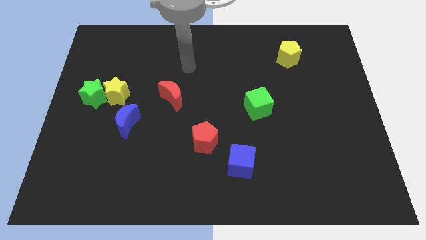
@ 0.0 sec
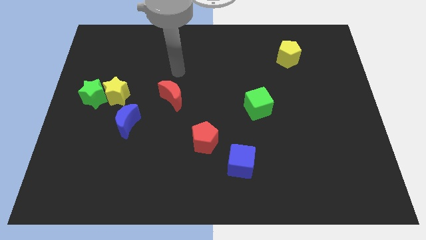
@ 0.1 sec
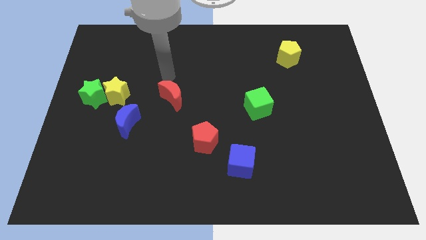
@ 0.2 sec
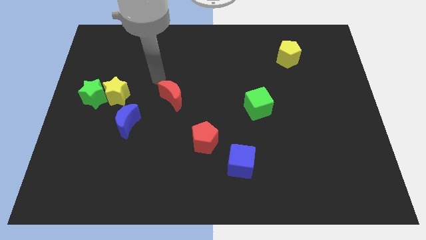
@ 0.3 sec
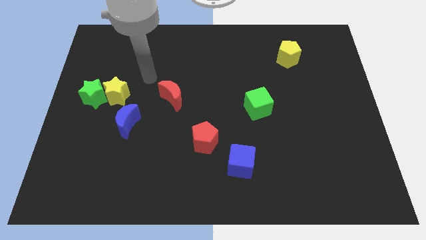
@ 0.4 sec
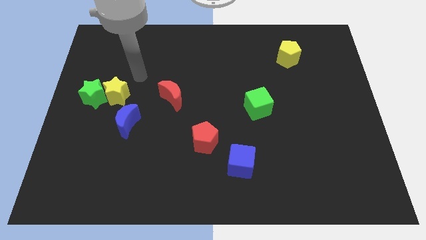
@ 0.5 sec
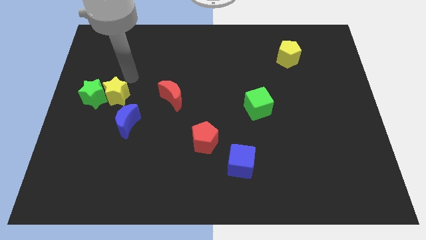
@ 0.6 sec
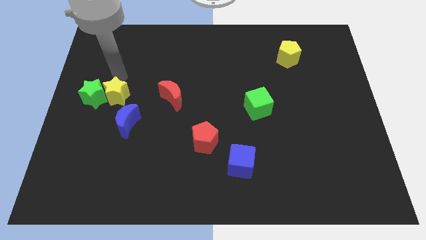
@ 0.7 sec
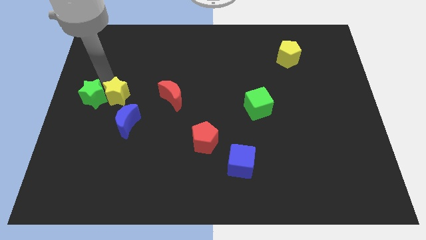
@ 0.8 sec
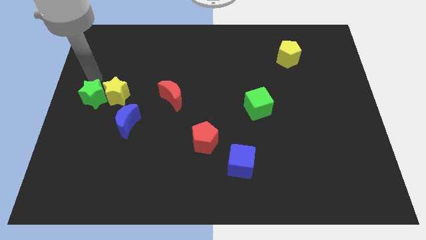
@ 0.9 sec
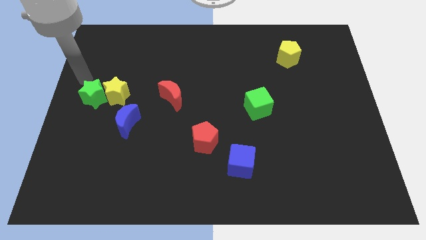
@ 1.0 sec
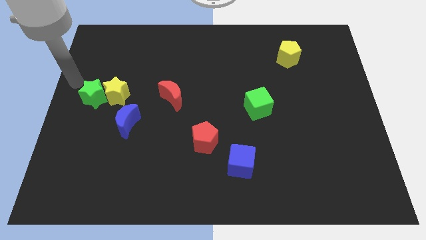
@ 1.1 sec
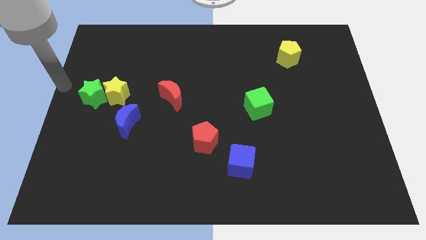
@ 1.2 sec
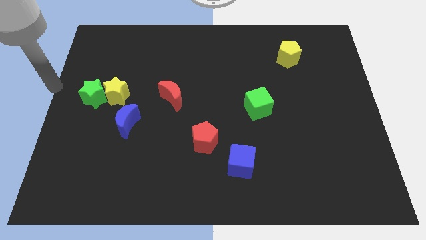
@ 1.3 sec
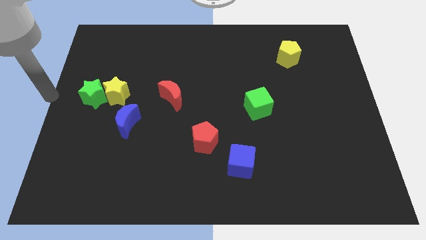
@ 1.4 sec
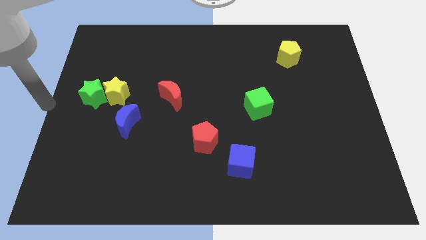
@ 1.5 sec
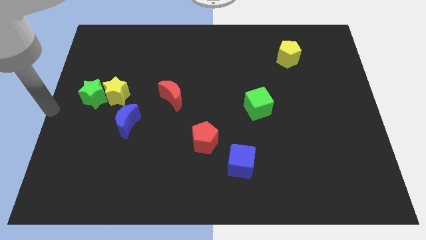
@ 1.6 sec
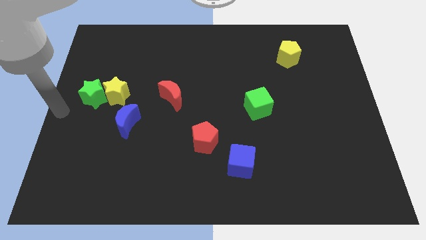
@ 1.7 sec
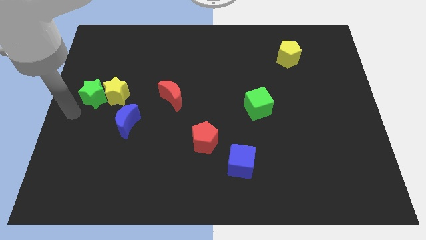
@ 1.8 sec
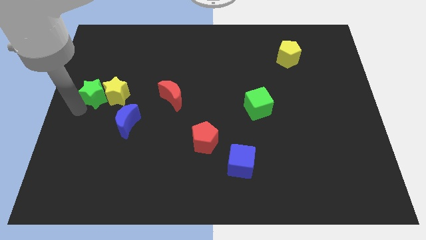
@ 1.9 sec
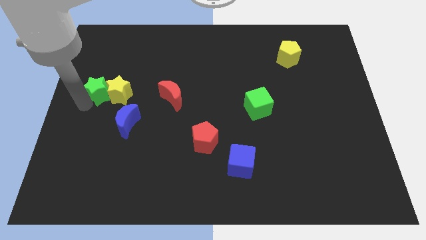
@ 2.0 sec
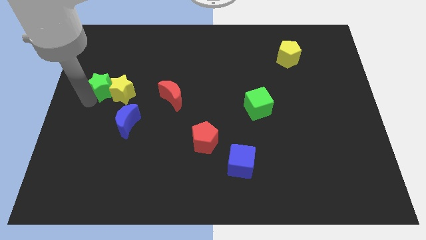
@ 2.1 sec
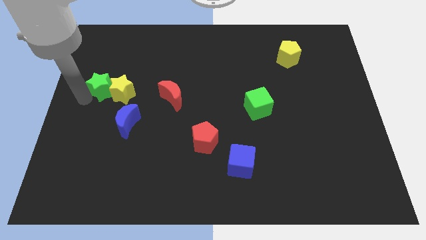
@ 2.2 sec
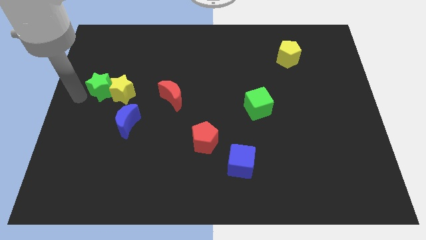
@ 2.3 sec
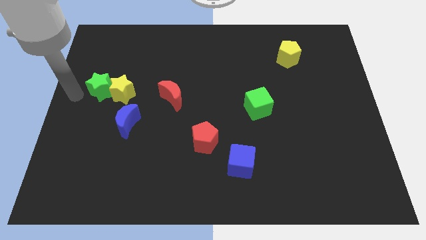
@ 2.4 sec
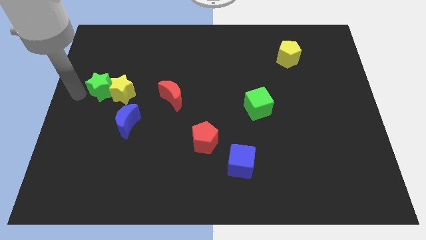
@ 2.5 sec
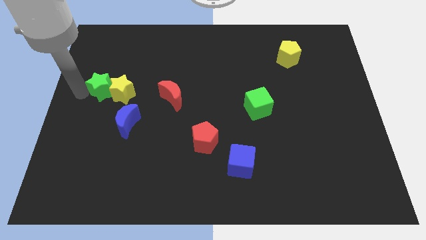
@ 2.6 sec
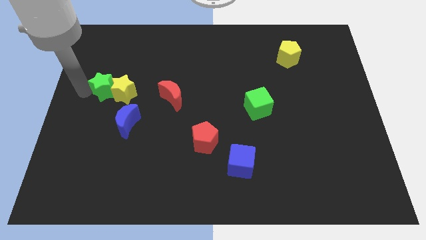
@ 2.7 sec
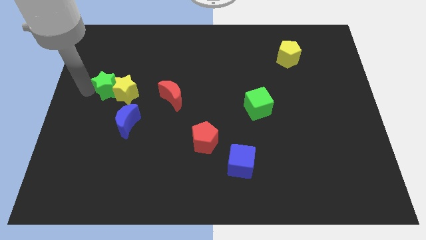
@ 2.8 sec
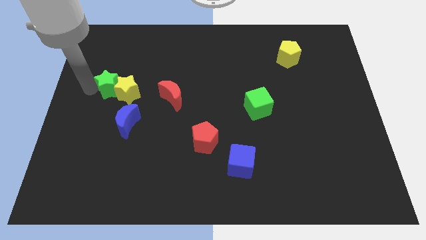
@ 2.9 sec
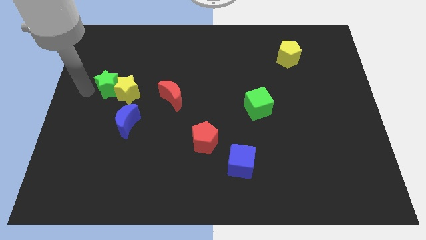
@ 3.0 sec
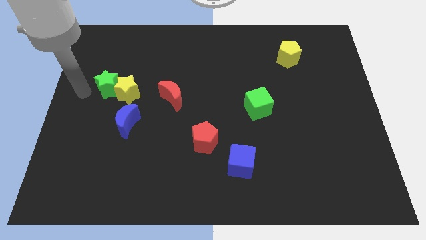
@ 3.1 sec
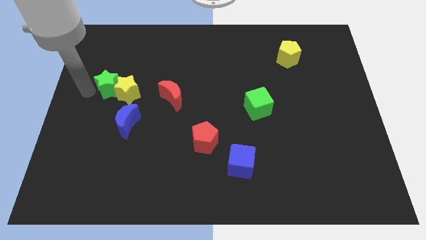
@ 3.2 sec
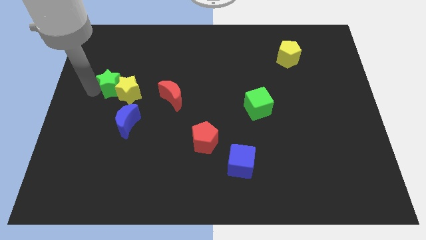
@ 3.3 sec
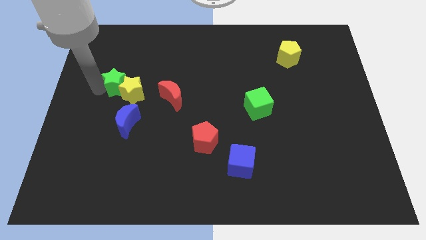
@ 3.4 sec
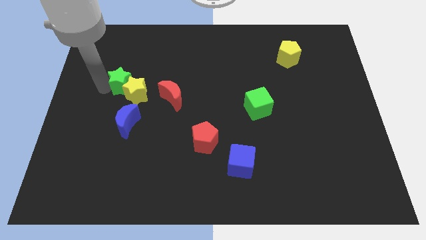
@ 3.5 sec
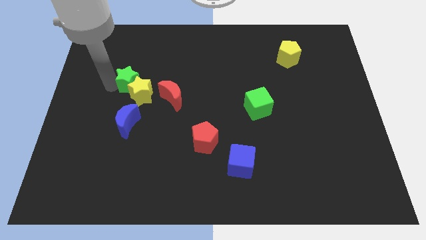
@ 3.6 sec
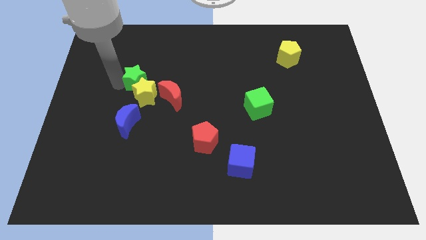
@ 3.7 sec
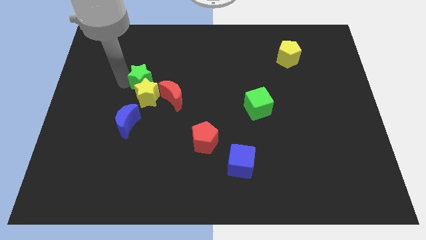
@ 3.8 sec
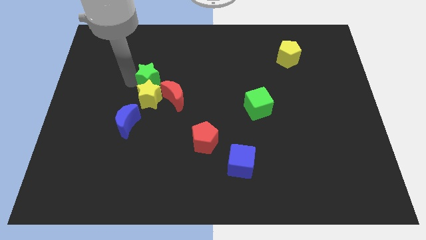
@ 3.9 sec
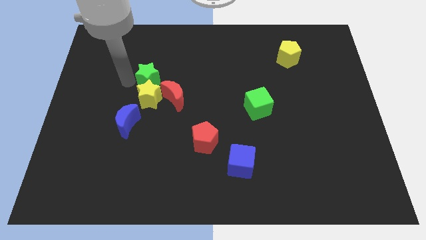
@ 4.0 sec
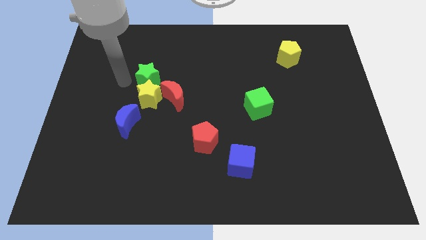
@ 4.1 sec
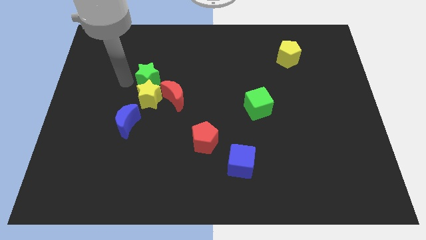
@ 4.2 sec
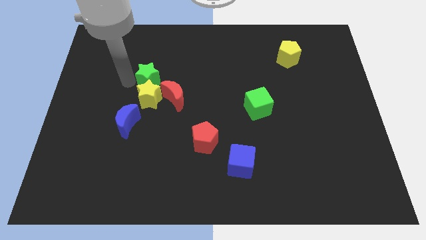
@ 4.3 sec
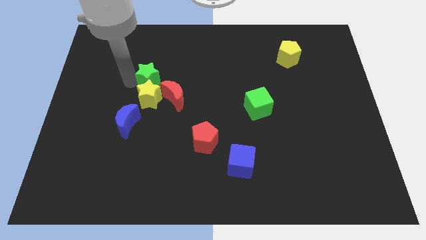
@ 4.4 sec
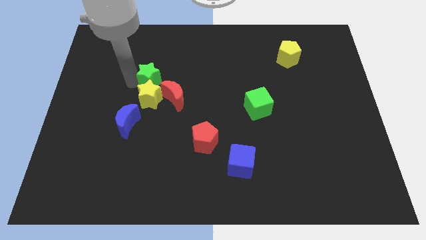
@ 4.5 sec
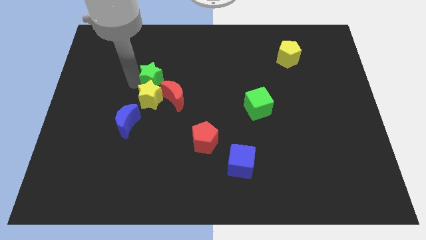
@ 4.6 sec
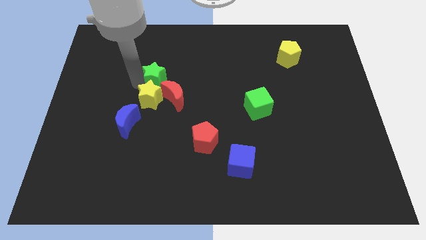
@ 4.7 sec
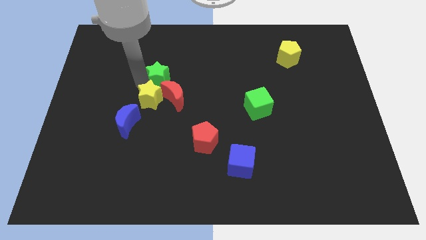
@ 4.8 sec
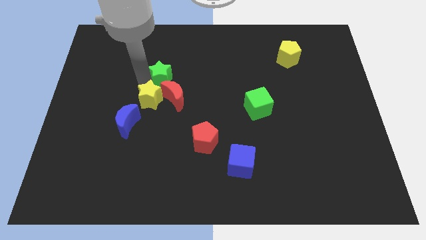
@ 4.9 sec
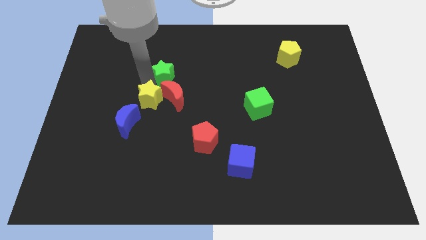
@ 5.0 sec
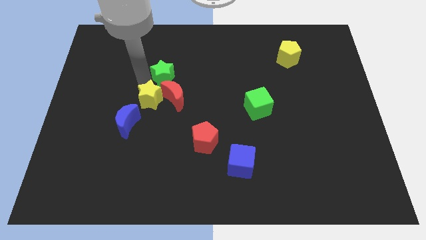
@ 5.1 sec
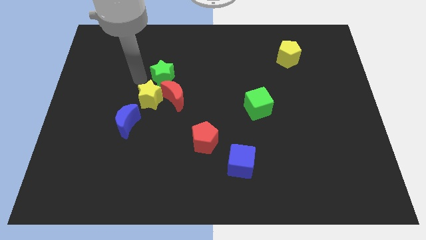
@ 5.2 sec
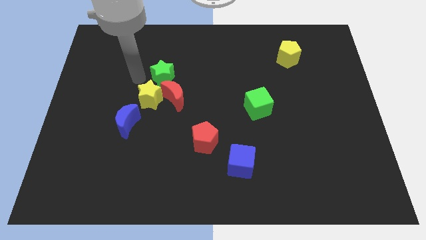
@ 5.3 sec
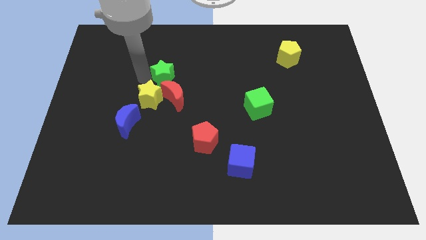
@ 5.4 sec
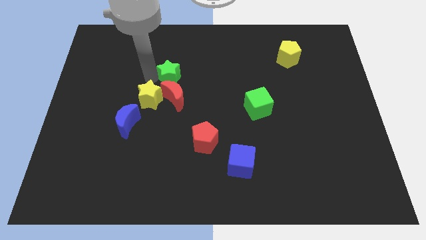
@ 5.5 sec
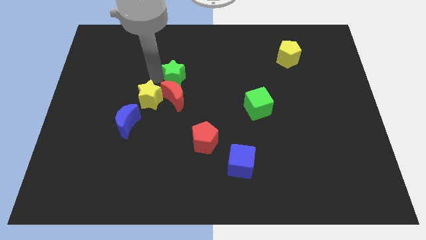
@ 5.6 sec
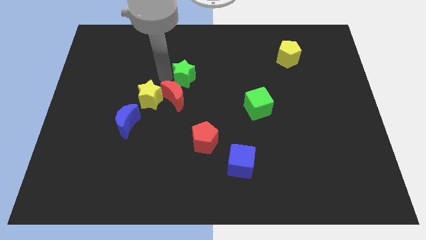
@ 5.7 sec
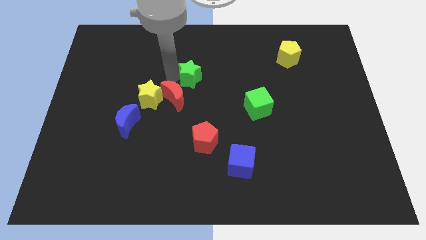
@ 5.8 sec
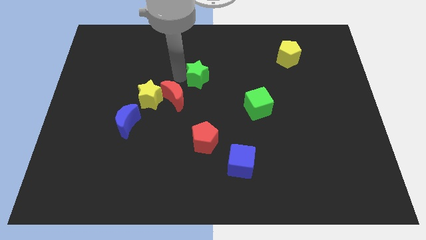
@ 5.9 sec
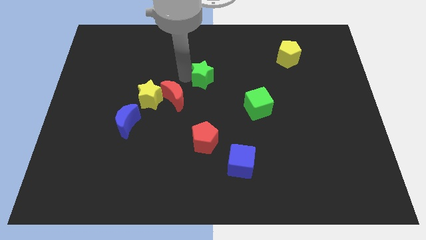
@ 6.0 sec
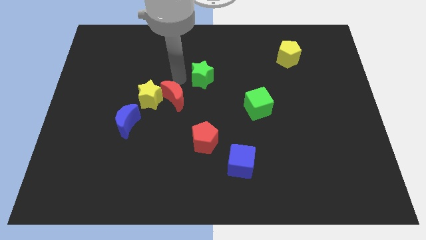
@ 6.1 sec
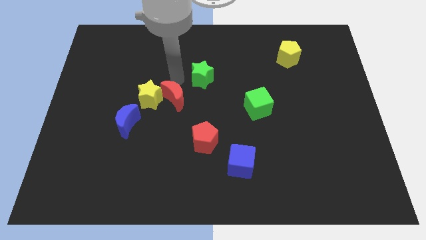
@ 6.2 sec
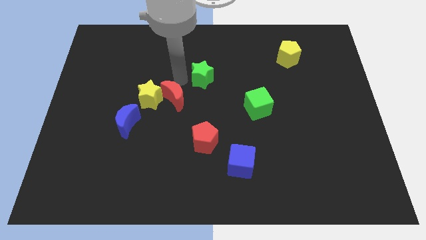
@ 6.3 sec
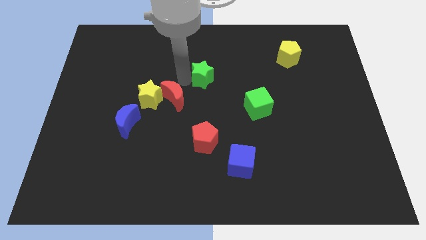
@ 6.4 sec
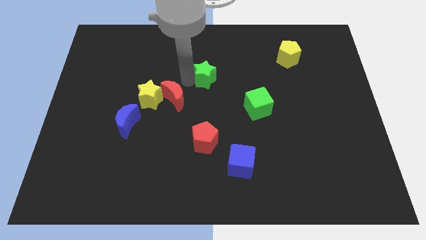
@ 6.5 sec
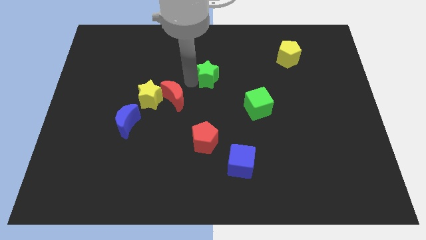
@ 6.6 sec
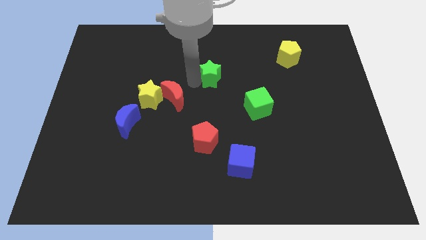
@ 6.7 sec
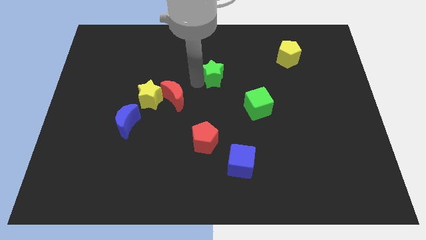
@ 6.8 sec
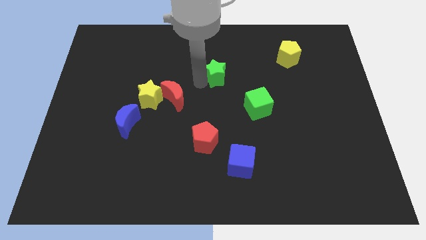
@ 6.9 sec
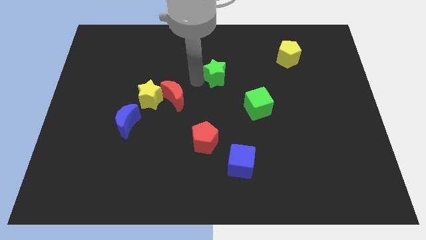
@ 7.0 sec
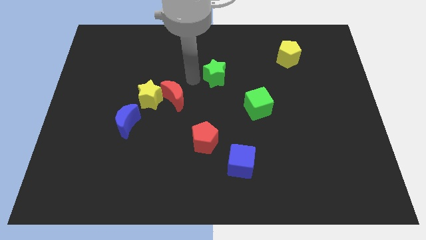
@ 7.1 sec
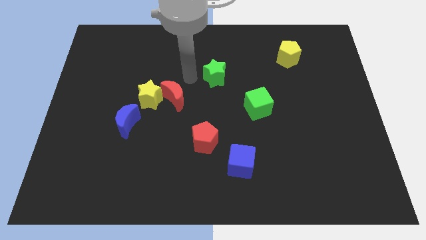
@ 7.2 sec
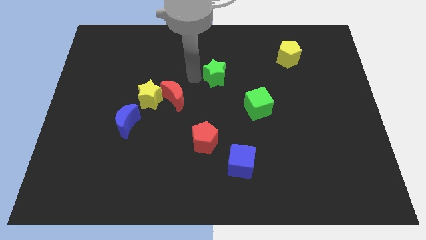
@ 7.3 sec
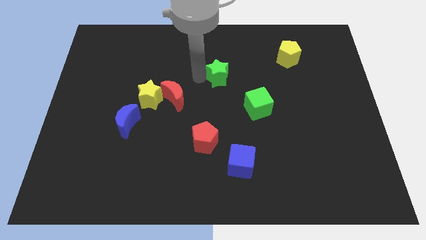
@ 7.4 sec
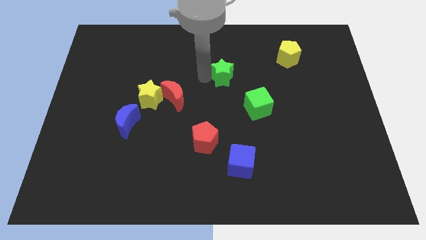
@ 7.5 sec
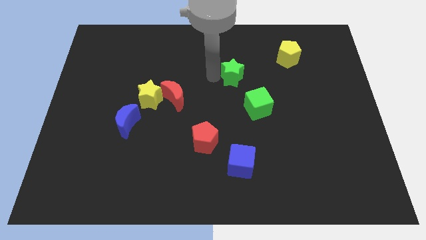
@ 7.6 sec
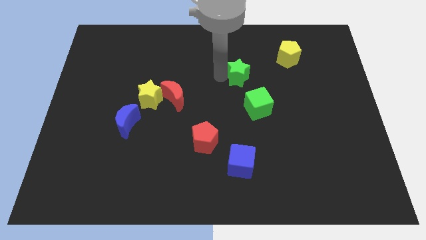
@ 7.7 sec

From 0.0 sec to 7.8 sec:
put the green star to the top of the green cube
